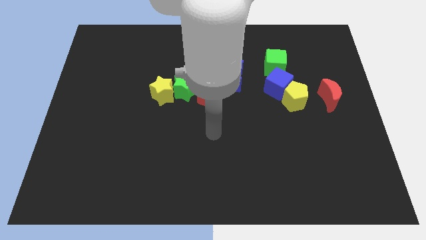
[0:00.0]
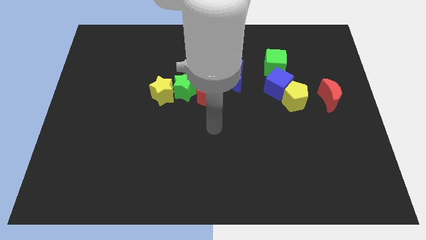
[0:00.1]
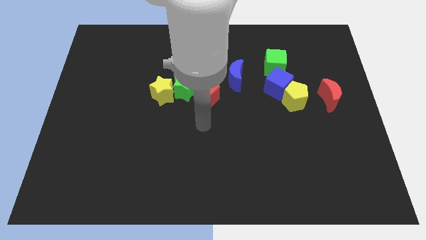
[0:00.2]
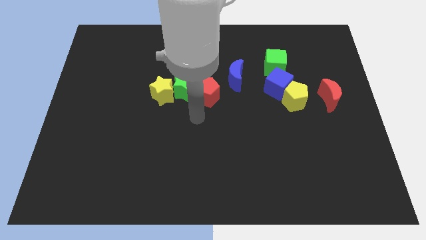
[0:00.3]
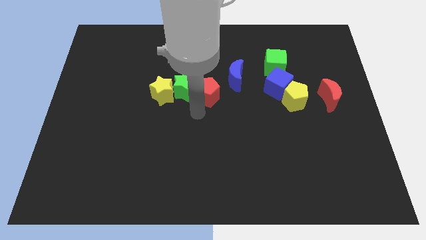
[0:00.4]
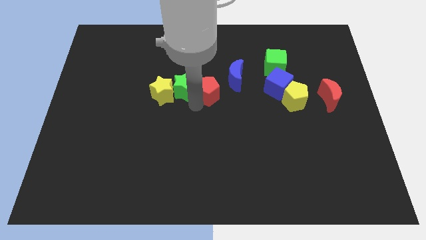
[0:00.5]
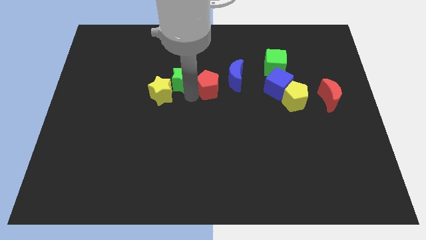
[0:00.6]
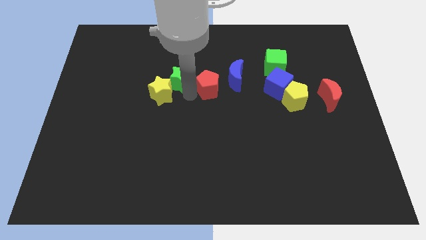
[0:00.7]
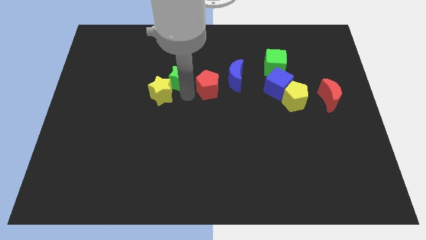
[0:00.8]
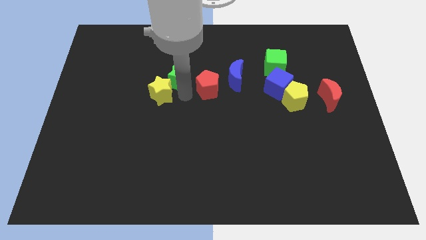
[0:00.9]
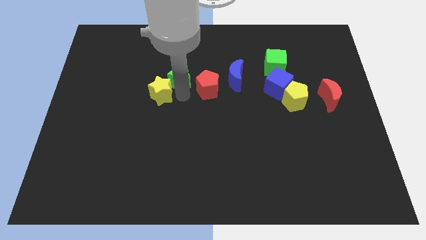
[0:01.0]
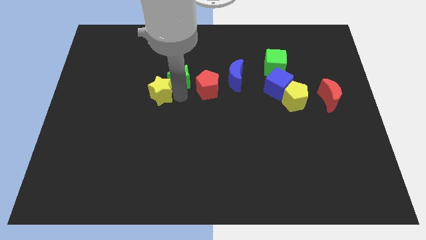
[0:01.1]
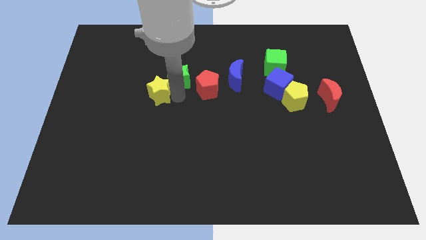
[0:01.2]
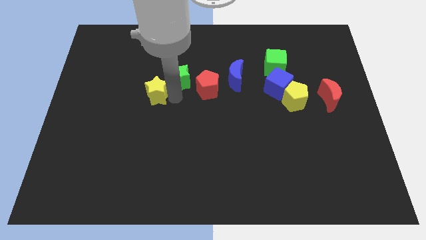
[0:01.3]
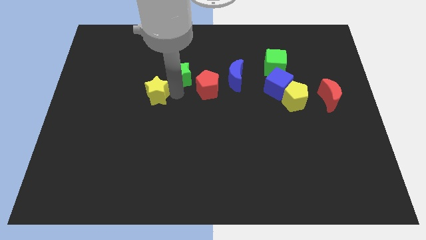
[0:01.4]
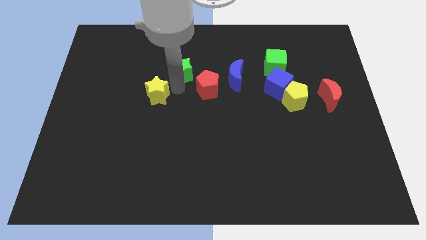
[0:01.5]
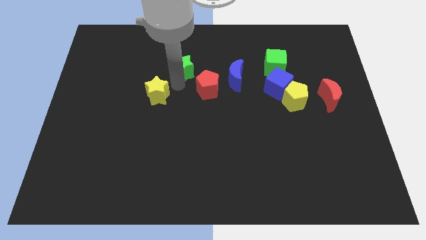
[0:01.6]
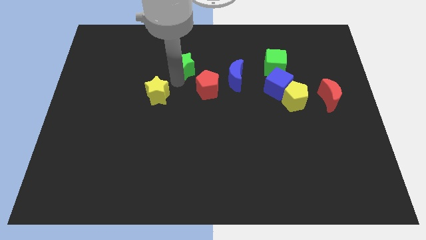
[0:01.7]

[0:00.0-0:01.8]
move the yellow star away from the green star

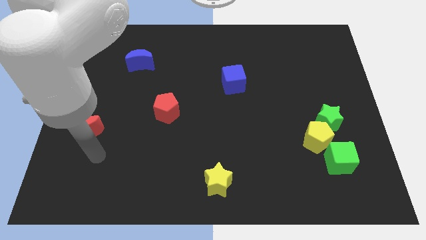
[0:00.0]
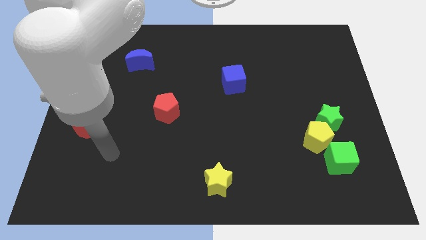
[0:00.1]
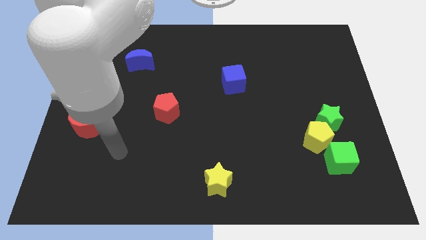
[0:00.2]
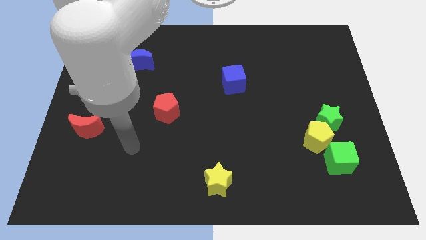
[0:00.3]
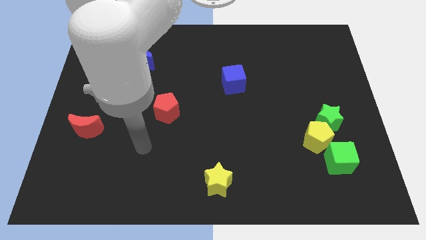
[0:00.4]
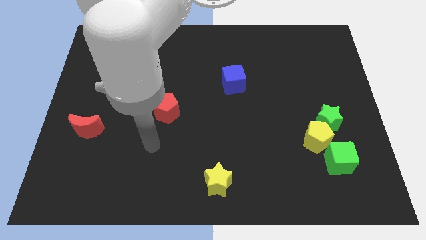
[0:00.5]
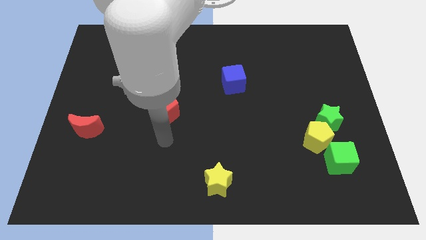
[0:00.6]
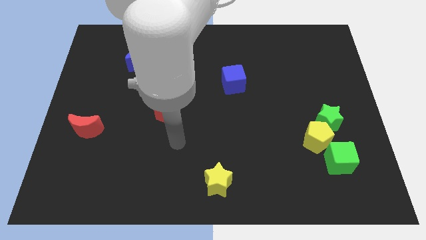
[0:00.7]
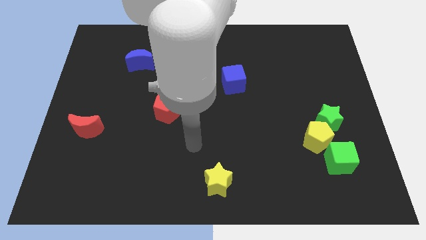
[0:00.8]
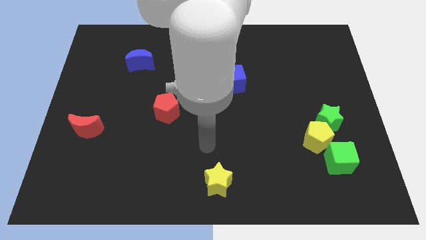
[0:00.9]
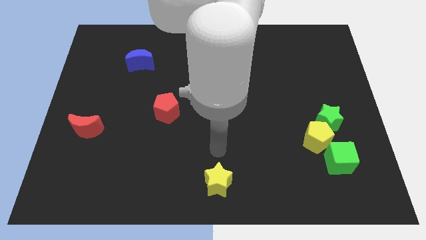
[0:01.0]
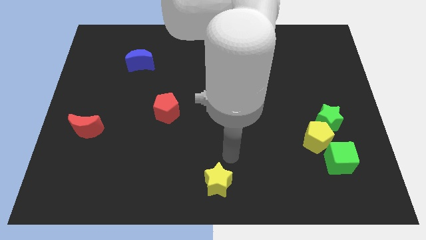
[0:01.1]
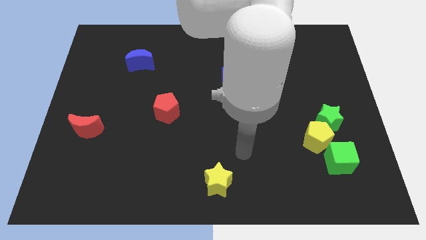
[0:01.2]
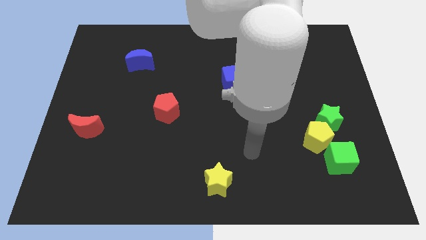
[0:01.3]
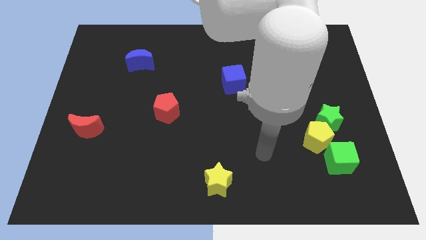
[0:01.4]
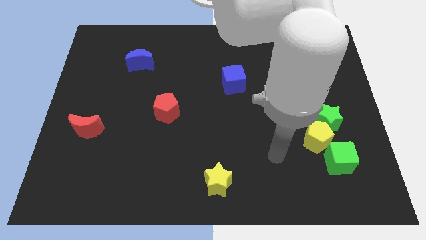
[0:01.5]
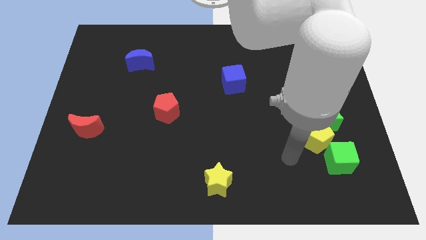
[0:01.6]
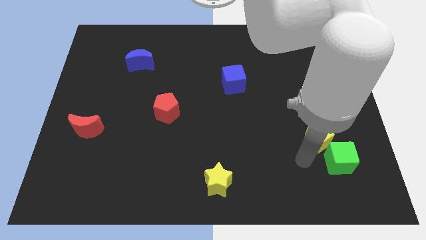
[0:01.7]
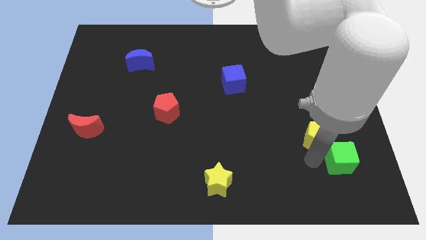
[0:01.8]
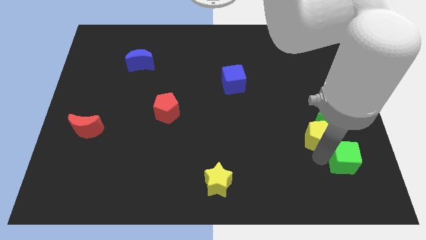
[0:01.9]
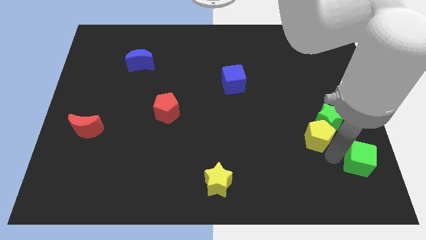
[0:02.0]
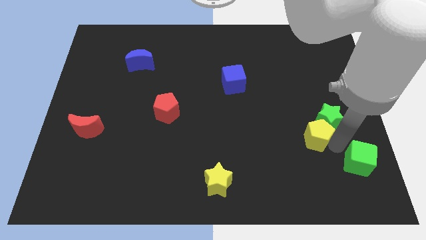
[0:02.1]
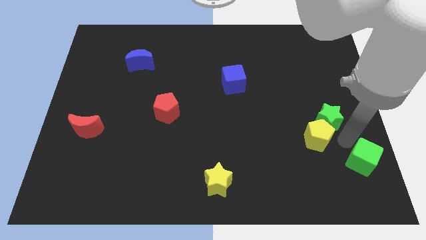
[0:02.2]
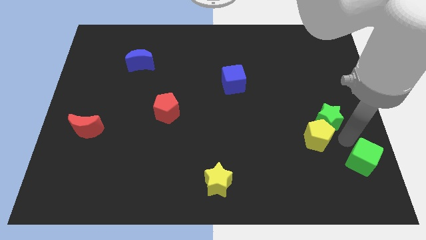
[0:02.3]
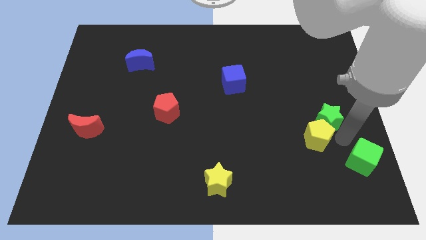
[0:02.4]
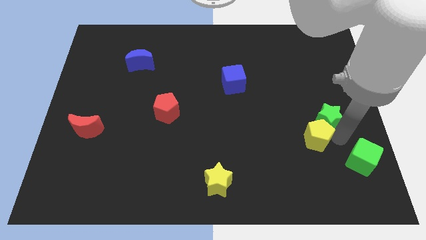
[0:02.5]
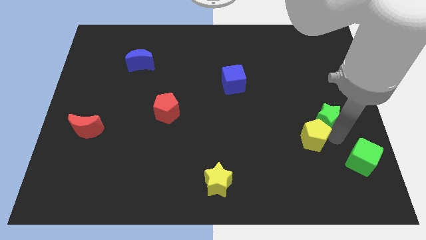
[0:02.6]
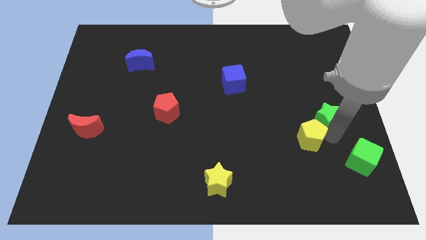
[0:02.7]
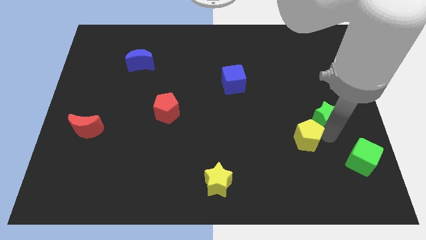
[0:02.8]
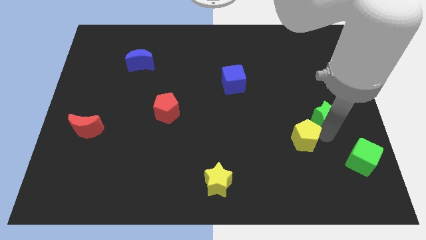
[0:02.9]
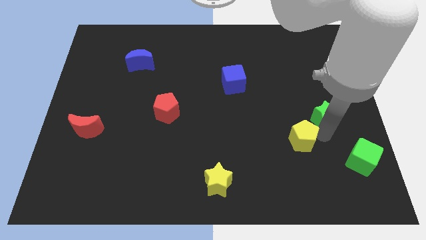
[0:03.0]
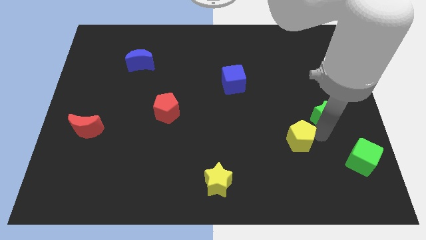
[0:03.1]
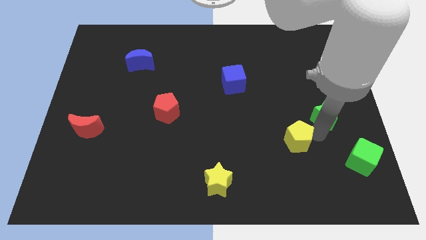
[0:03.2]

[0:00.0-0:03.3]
move the yellow pentagon away from the green star and green cube

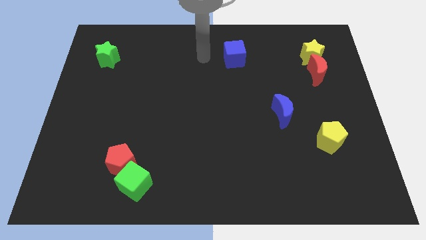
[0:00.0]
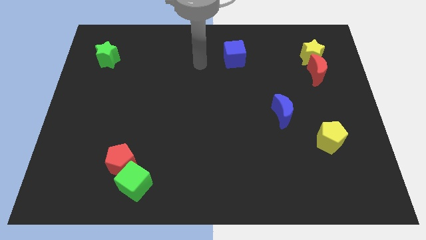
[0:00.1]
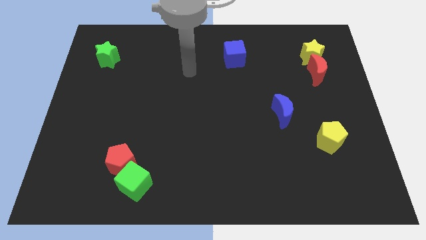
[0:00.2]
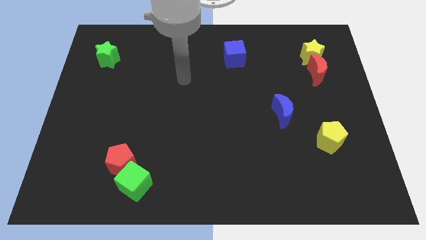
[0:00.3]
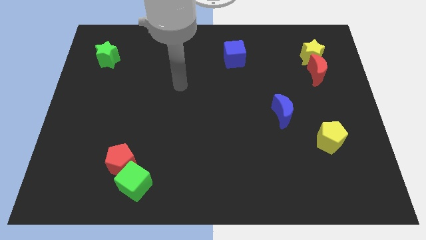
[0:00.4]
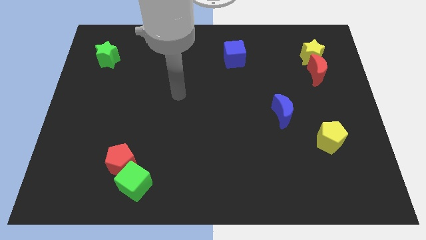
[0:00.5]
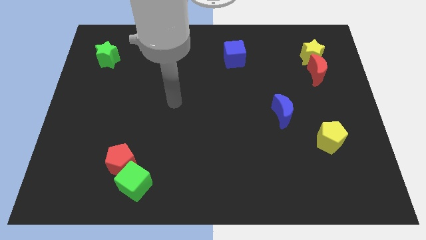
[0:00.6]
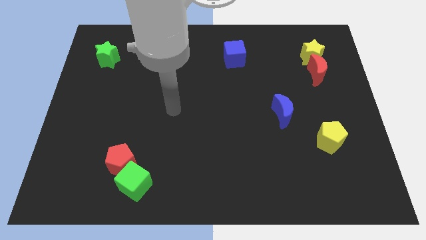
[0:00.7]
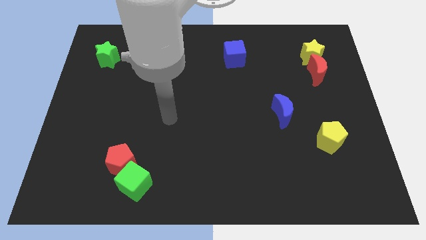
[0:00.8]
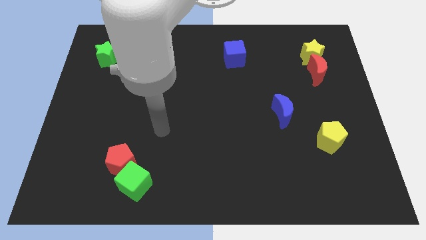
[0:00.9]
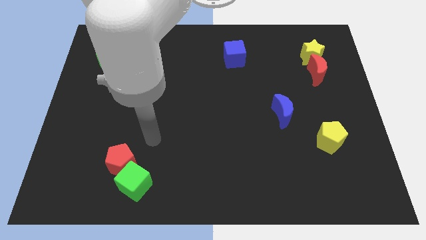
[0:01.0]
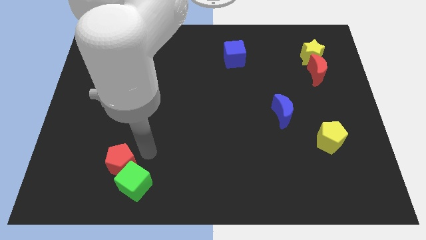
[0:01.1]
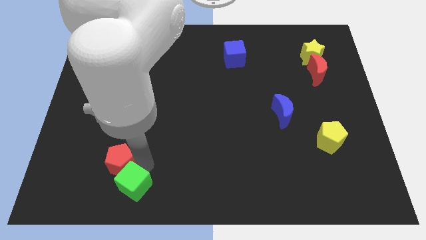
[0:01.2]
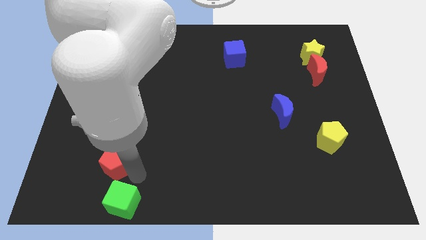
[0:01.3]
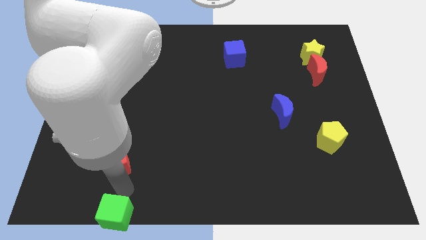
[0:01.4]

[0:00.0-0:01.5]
move the red pentagon away from the green cube

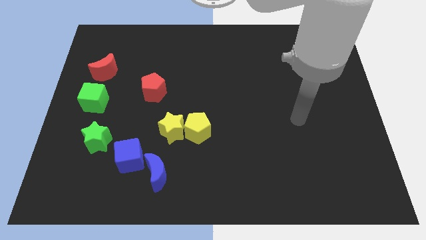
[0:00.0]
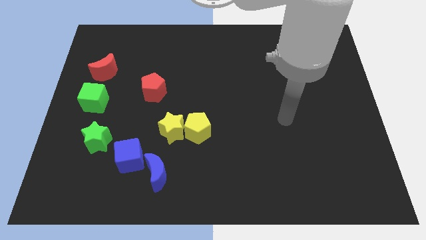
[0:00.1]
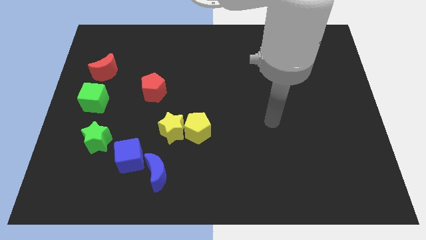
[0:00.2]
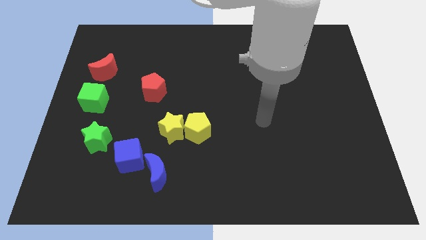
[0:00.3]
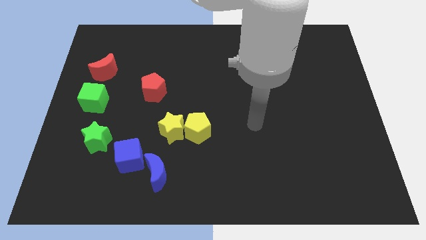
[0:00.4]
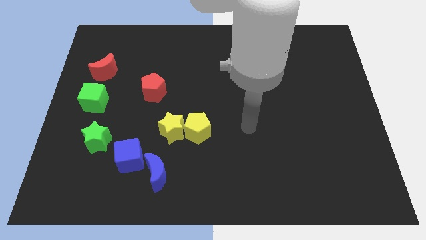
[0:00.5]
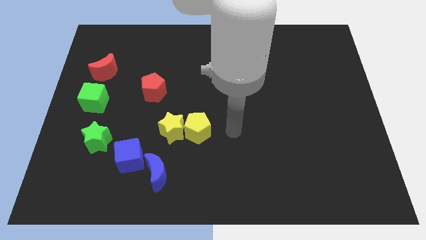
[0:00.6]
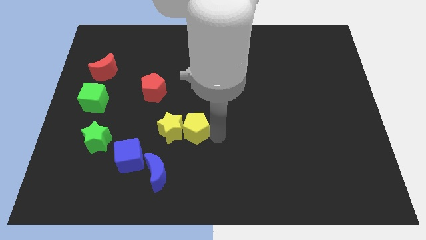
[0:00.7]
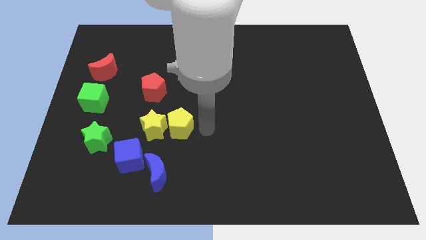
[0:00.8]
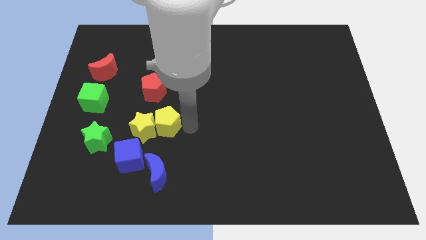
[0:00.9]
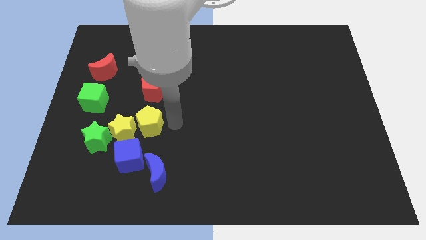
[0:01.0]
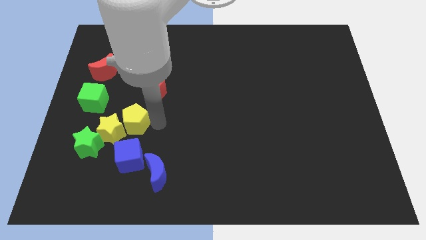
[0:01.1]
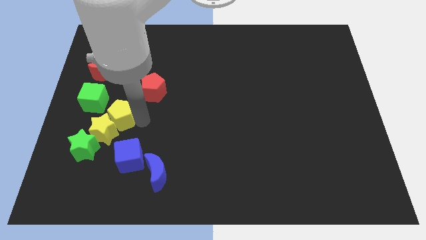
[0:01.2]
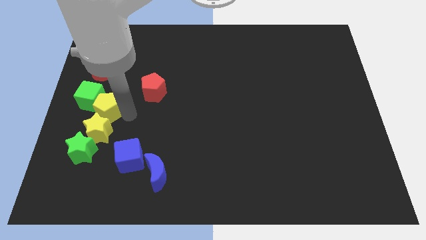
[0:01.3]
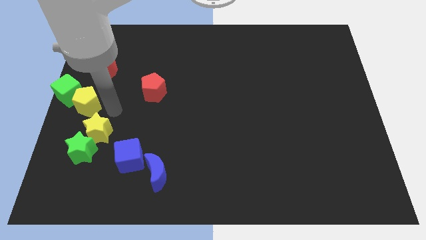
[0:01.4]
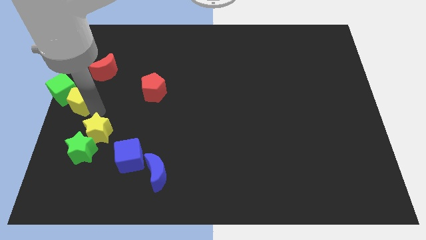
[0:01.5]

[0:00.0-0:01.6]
pull the yellow star apart from the yellow pentagon

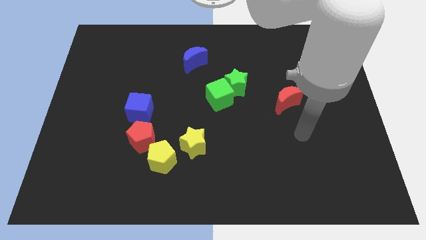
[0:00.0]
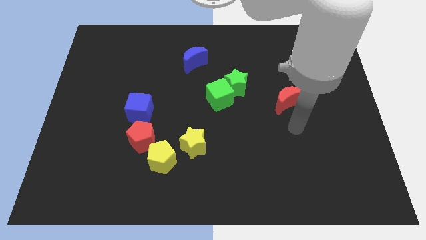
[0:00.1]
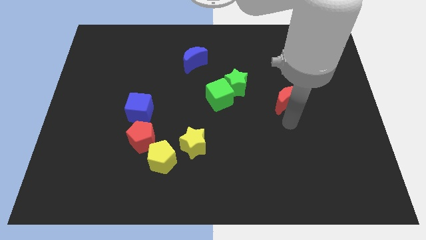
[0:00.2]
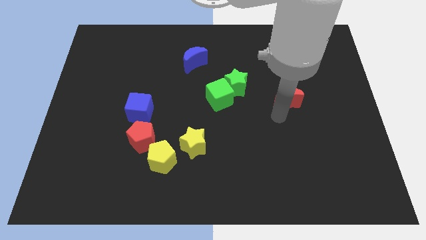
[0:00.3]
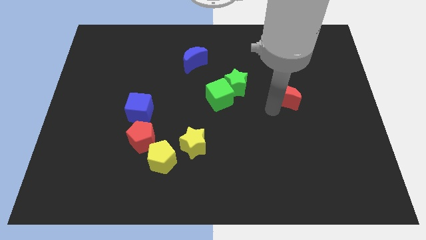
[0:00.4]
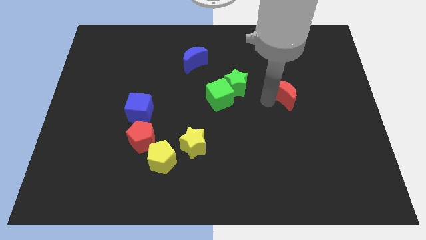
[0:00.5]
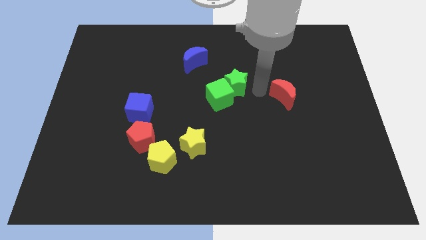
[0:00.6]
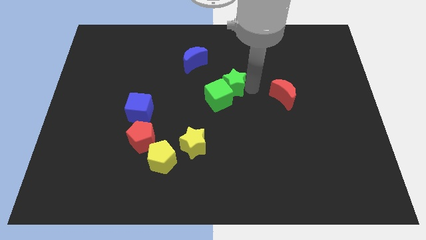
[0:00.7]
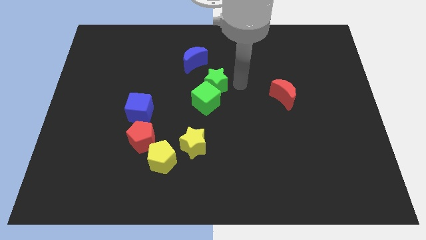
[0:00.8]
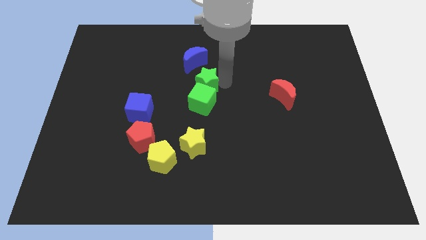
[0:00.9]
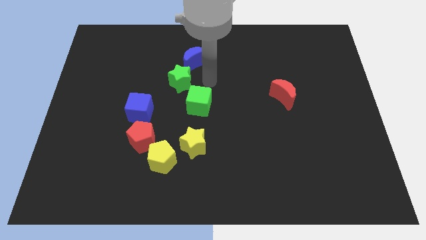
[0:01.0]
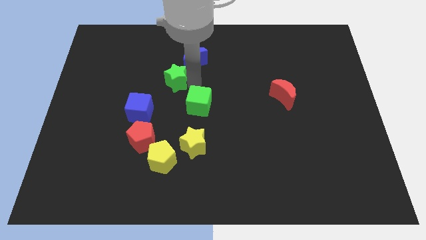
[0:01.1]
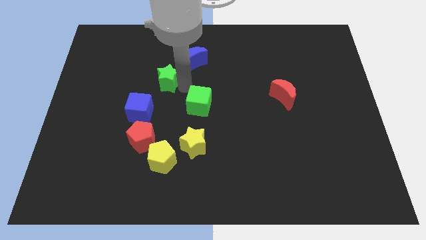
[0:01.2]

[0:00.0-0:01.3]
separate the green cube from the green star

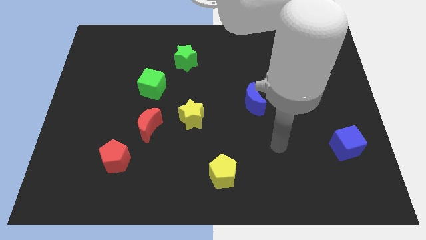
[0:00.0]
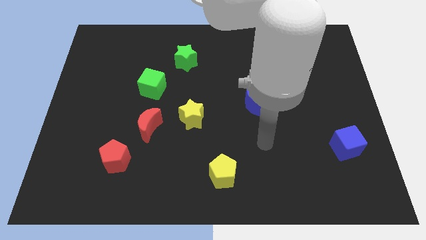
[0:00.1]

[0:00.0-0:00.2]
move the yellow star away from the red moon
